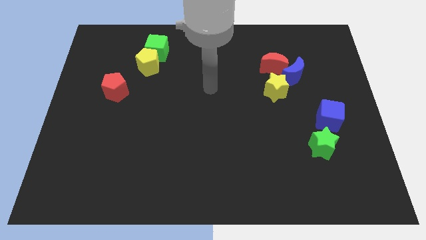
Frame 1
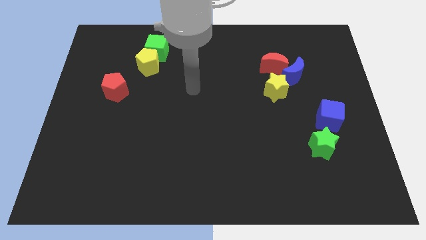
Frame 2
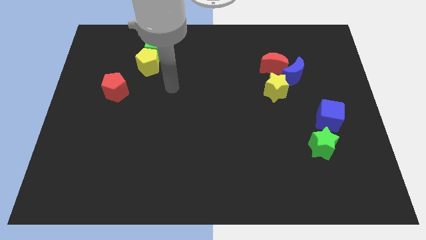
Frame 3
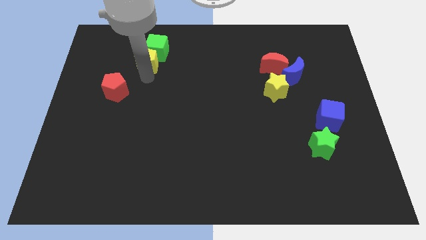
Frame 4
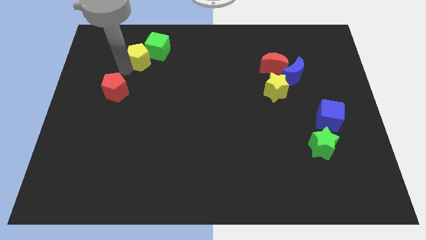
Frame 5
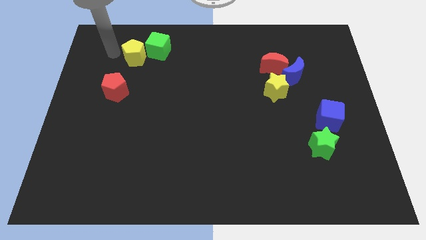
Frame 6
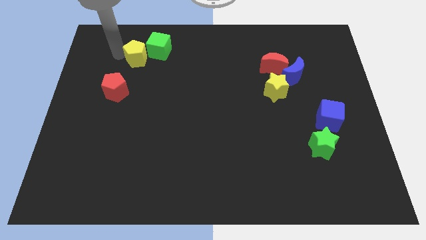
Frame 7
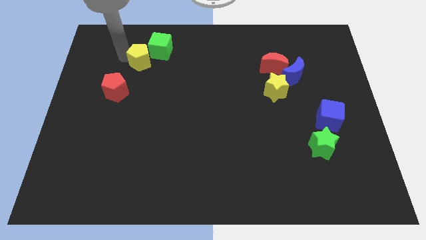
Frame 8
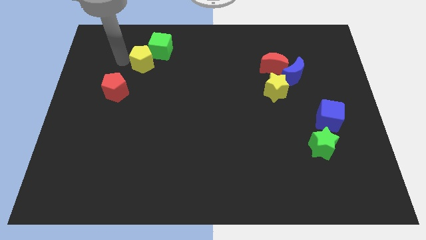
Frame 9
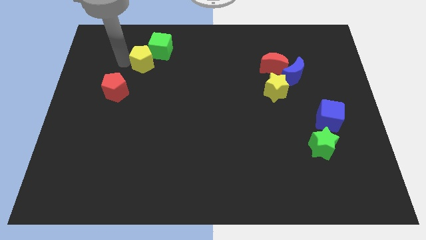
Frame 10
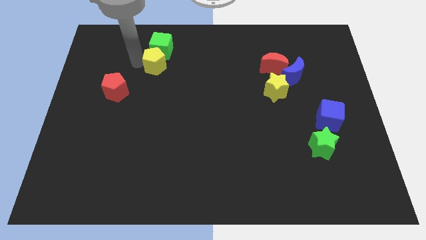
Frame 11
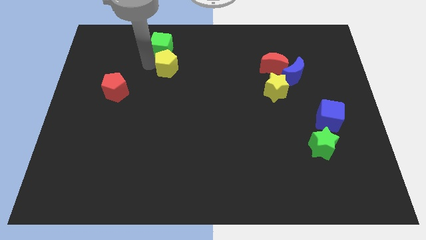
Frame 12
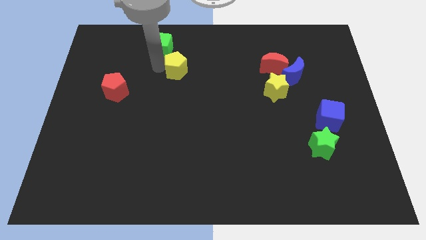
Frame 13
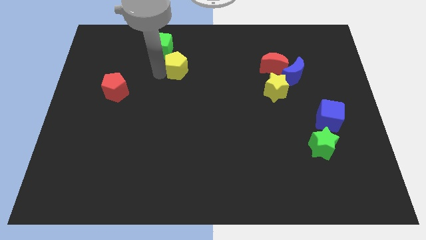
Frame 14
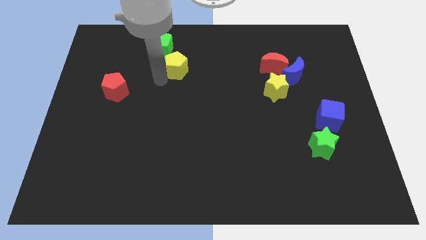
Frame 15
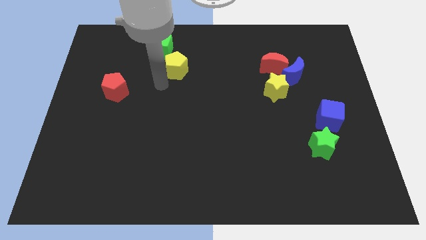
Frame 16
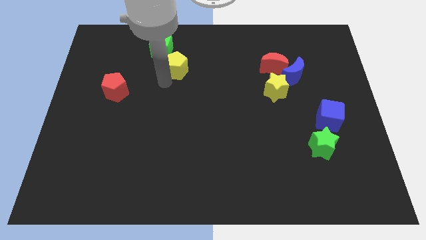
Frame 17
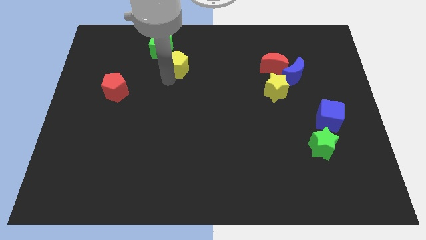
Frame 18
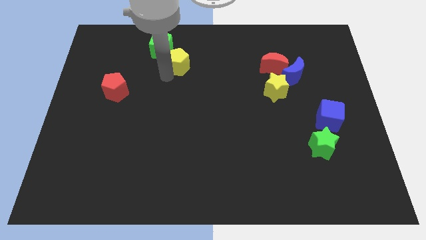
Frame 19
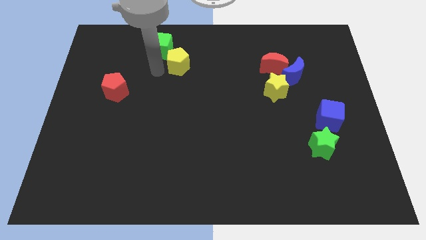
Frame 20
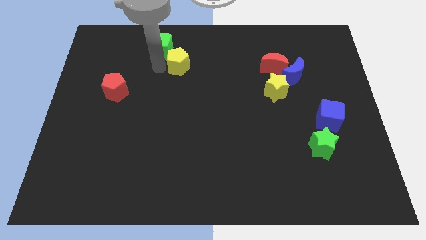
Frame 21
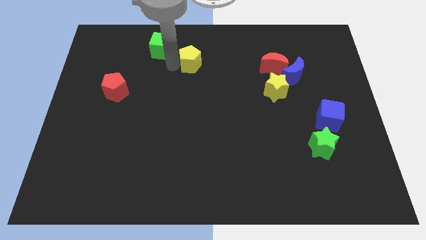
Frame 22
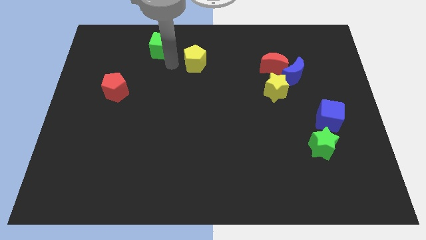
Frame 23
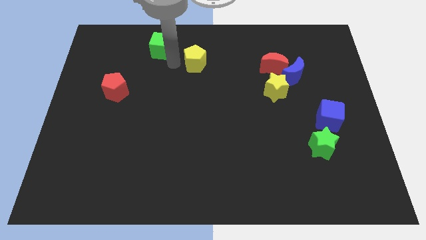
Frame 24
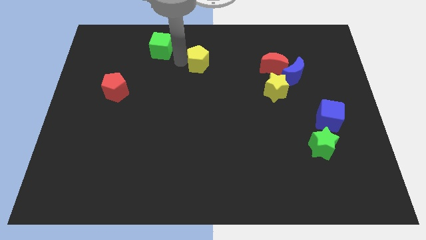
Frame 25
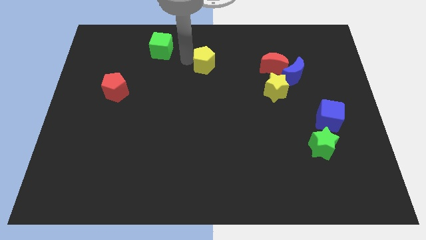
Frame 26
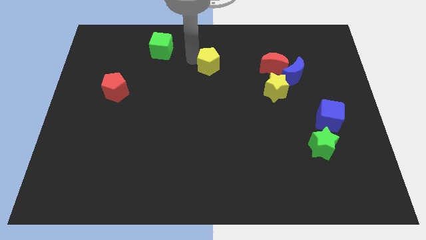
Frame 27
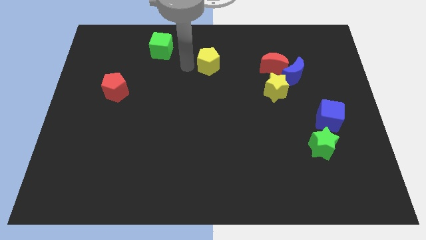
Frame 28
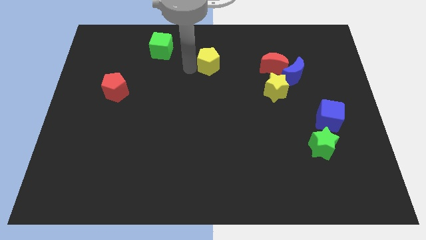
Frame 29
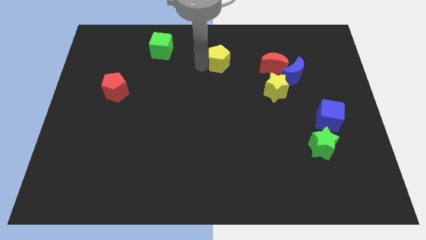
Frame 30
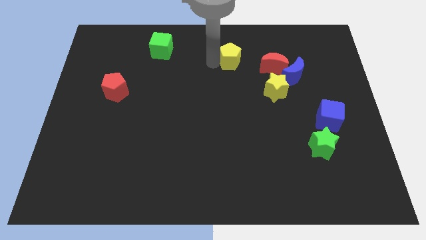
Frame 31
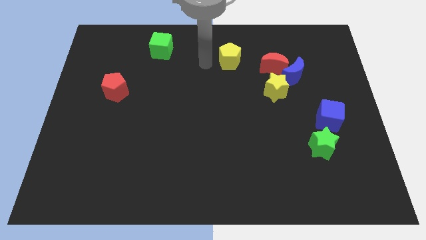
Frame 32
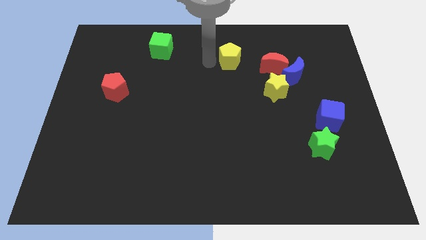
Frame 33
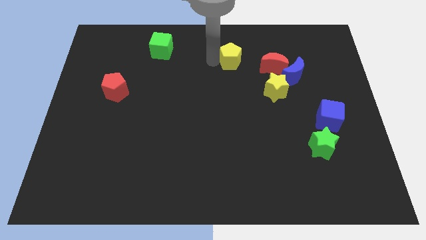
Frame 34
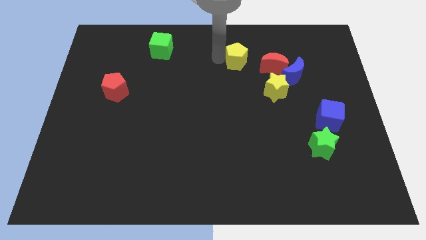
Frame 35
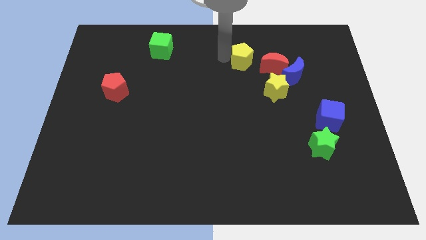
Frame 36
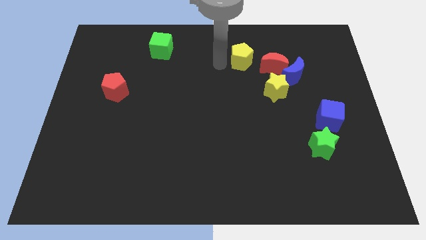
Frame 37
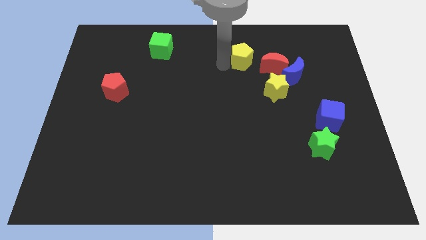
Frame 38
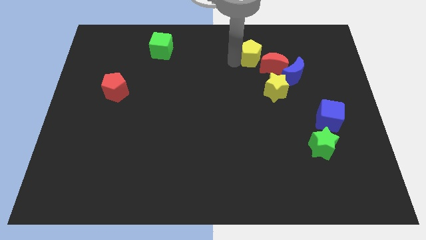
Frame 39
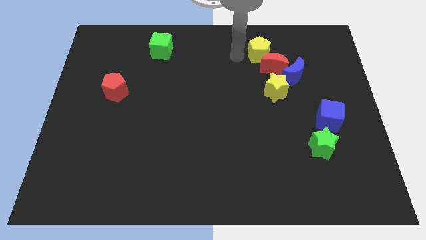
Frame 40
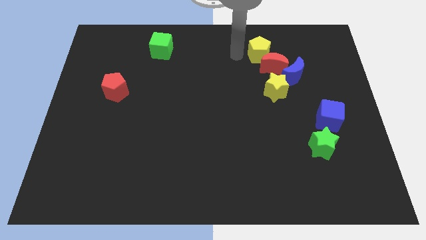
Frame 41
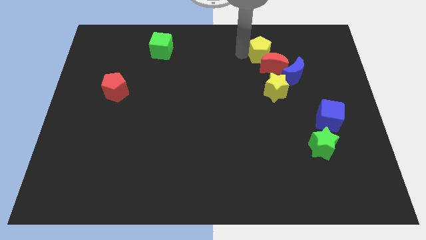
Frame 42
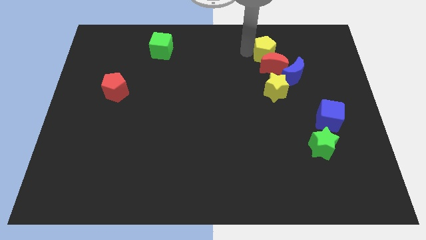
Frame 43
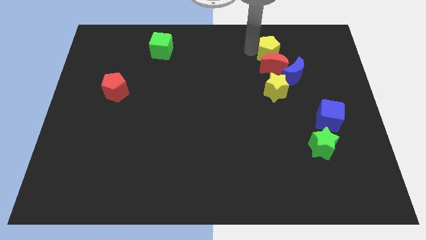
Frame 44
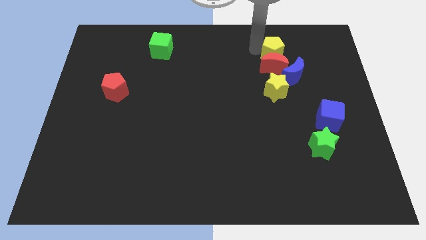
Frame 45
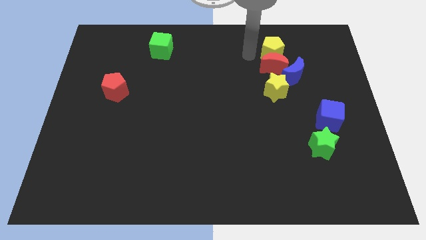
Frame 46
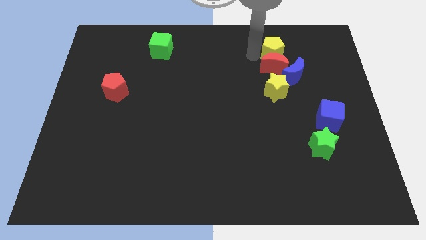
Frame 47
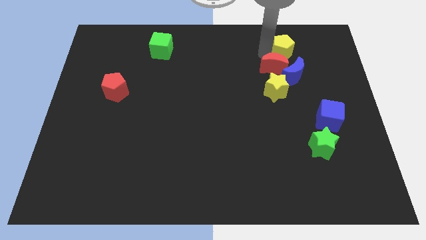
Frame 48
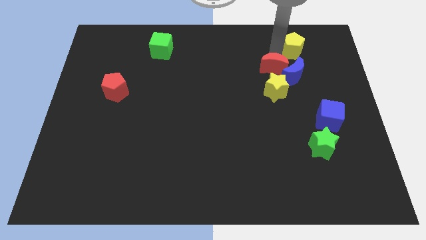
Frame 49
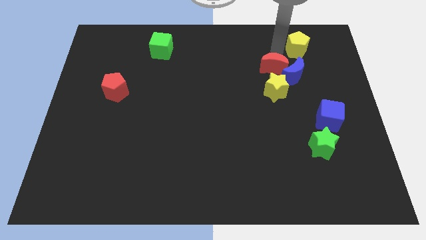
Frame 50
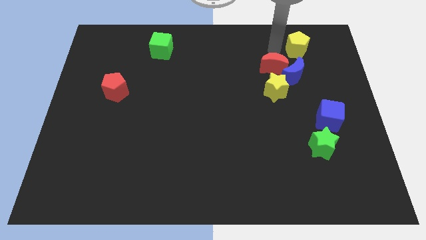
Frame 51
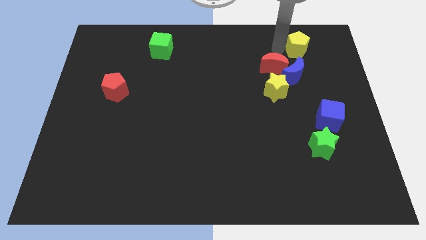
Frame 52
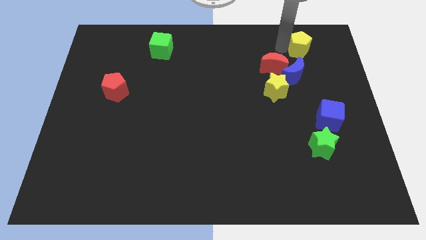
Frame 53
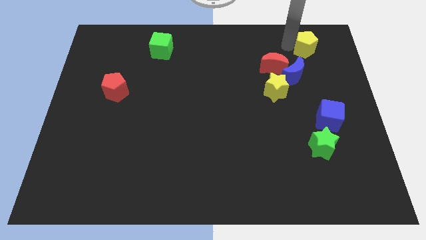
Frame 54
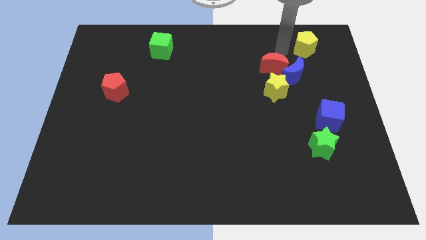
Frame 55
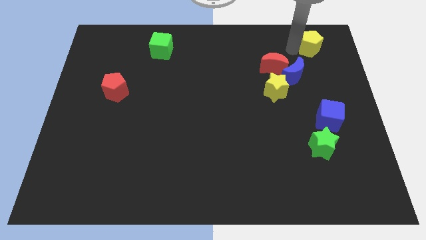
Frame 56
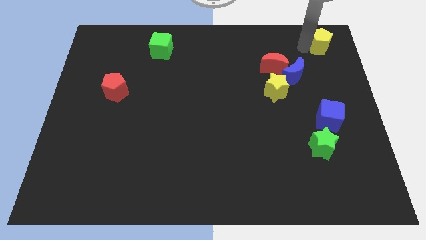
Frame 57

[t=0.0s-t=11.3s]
slide the yellow pentagon to the upper right corner

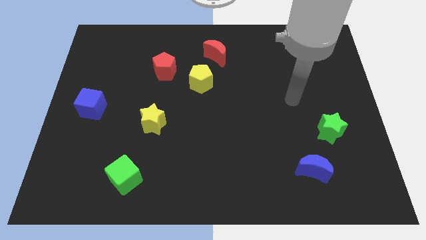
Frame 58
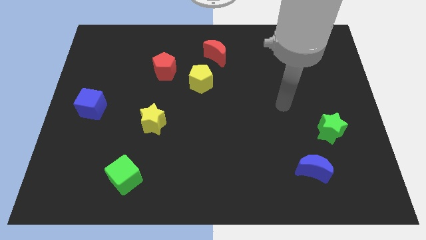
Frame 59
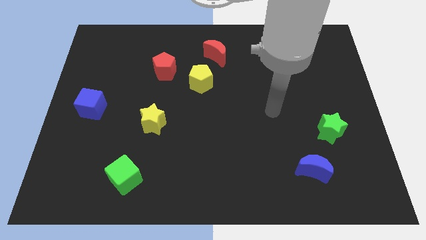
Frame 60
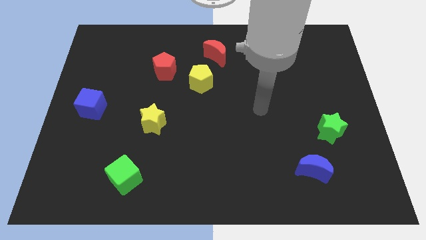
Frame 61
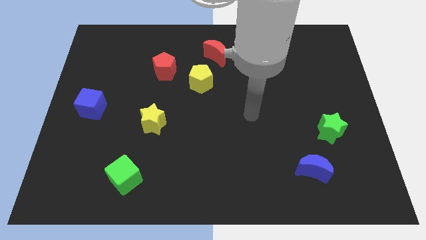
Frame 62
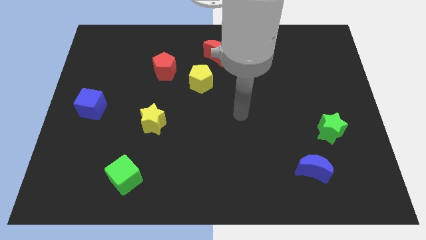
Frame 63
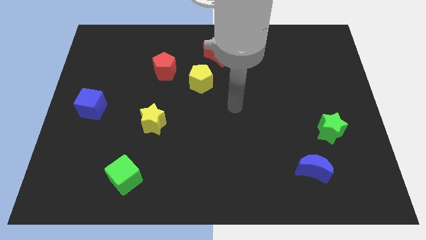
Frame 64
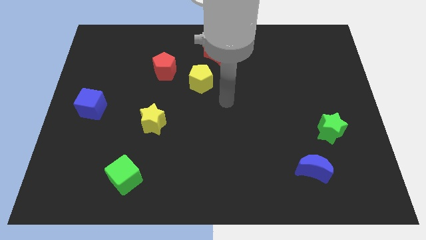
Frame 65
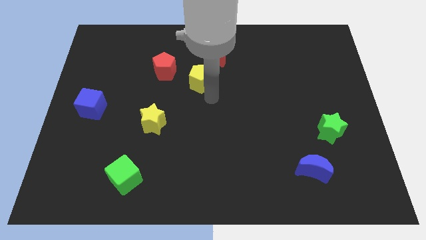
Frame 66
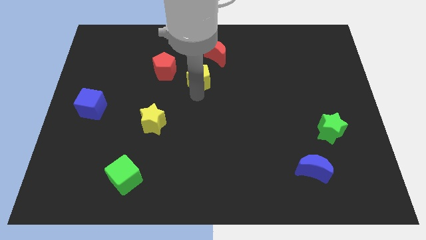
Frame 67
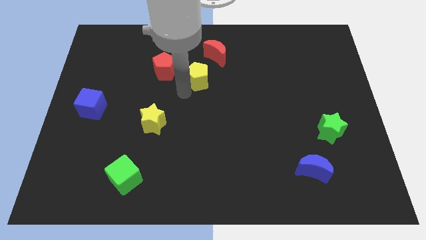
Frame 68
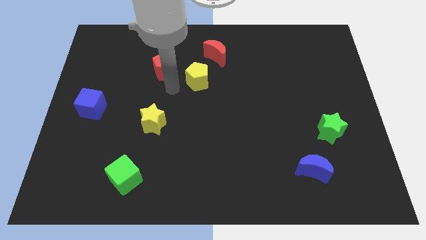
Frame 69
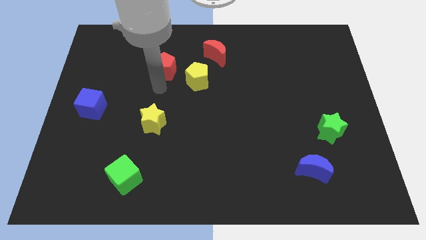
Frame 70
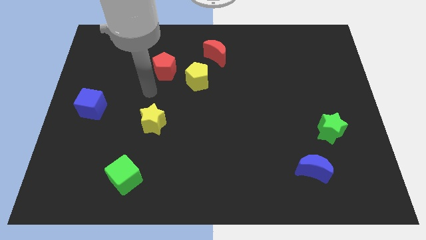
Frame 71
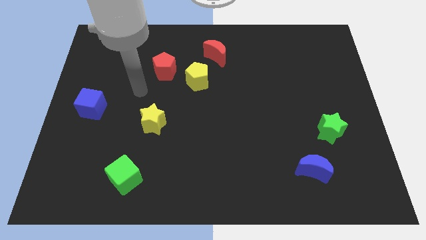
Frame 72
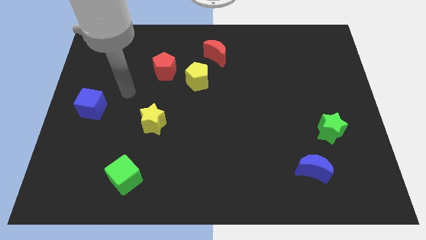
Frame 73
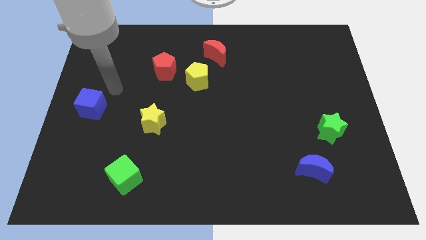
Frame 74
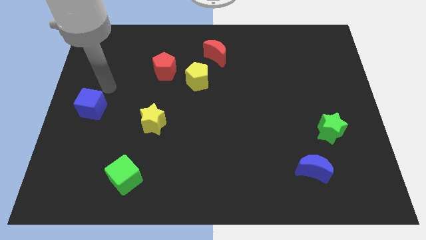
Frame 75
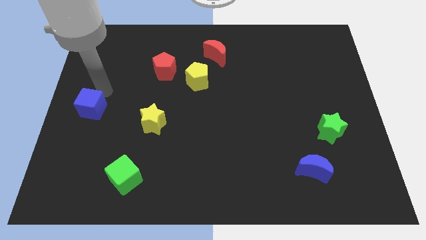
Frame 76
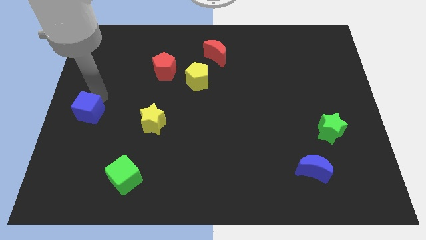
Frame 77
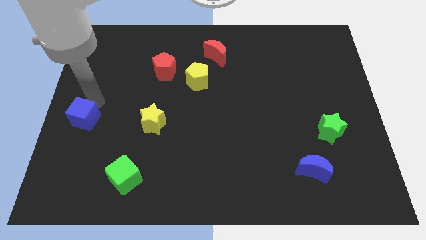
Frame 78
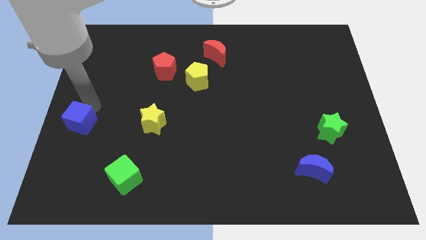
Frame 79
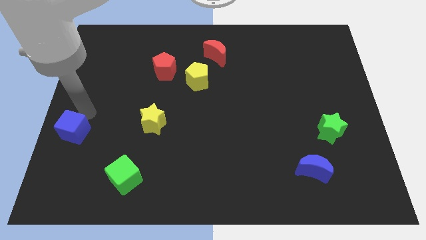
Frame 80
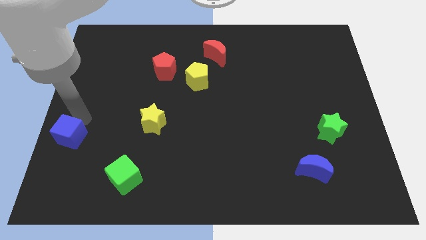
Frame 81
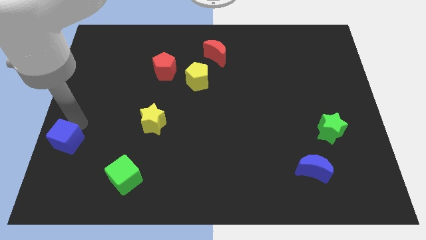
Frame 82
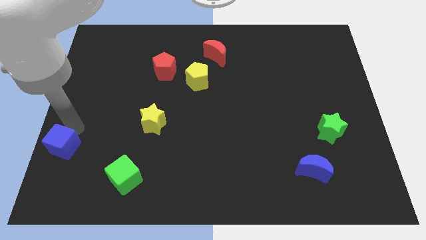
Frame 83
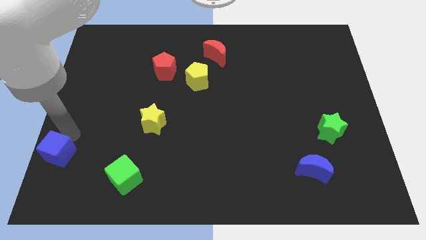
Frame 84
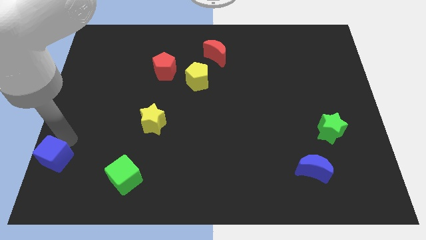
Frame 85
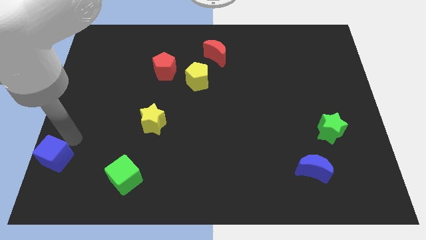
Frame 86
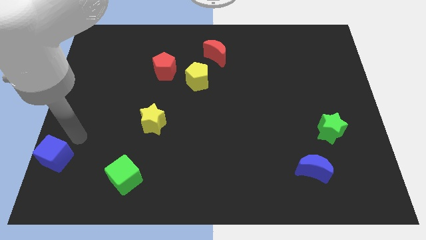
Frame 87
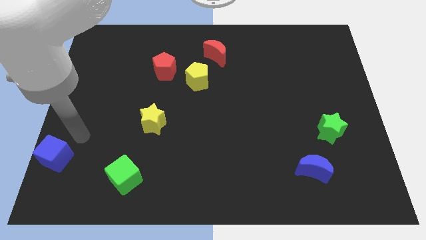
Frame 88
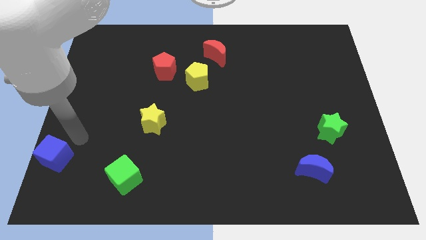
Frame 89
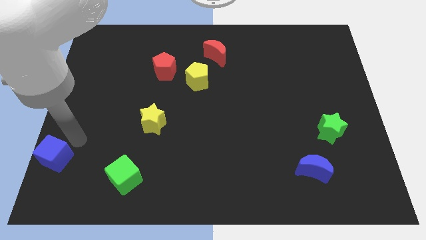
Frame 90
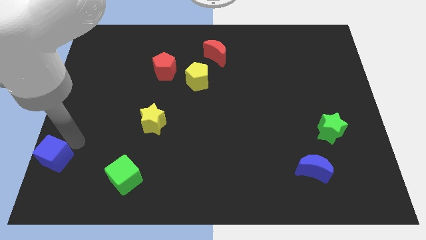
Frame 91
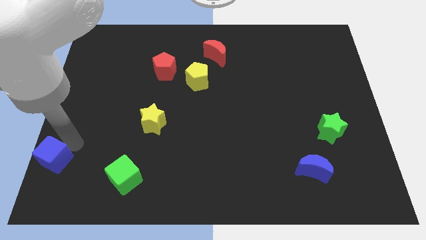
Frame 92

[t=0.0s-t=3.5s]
slide the blue cube to the bottom left corner
